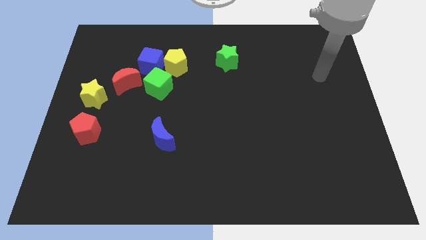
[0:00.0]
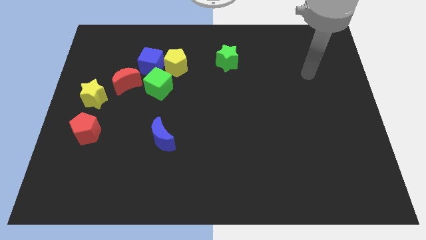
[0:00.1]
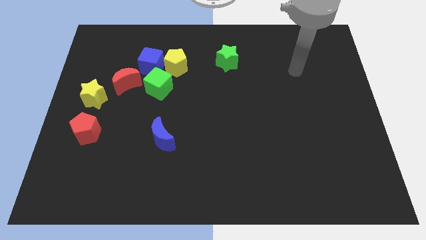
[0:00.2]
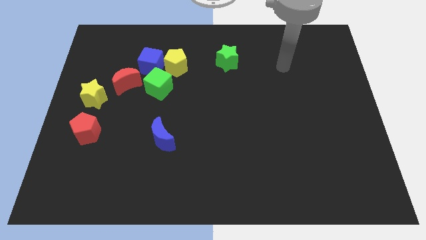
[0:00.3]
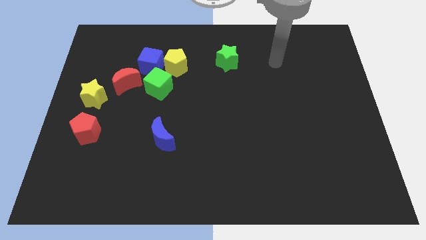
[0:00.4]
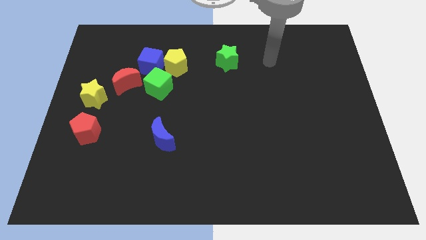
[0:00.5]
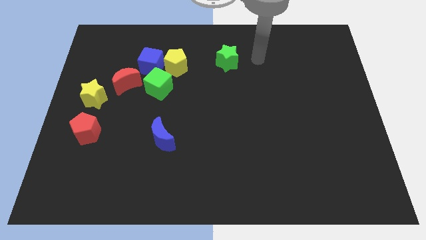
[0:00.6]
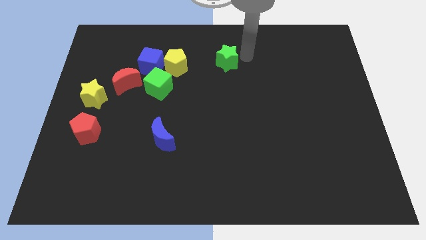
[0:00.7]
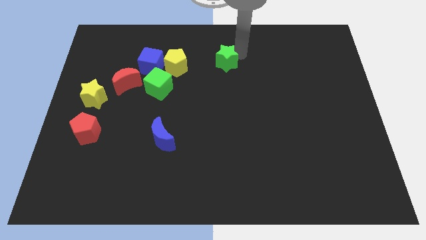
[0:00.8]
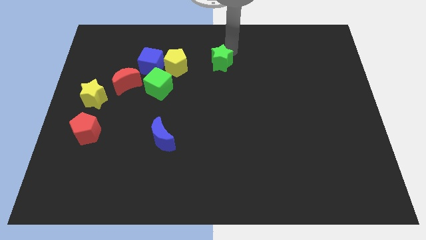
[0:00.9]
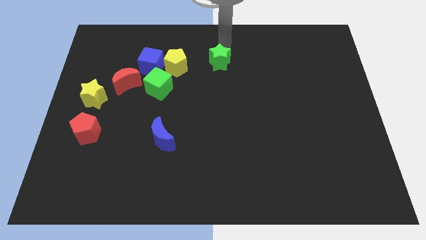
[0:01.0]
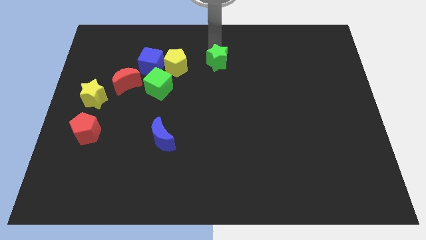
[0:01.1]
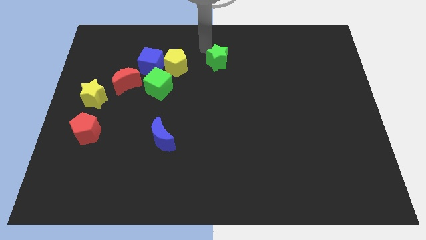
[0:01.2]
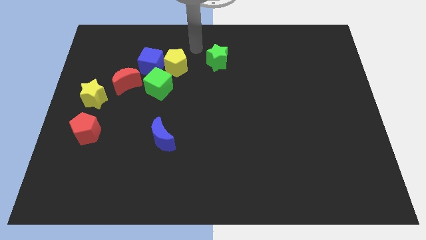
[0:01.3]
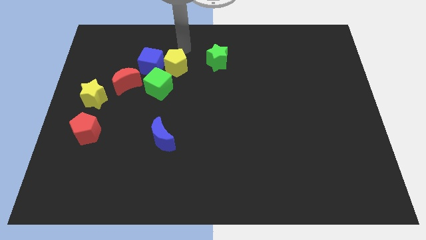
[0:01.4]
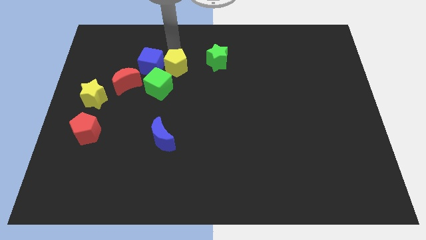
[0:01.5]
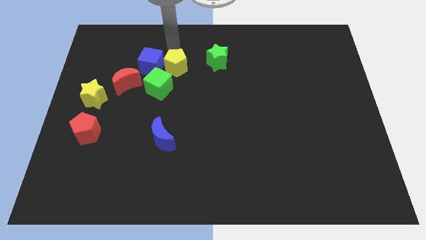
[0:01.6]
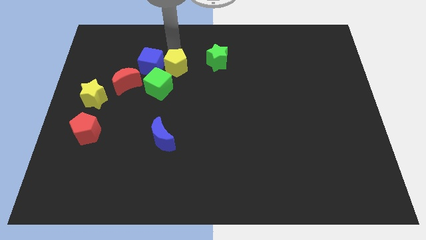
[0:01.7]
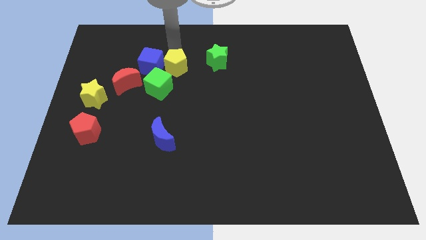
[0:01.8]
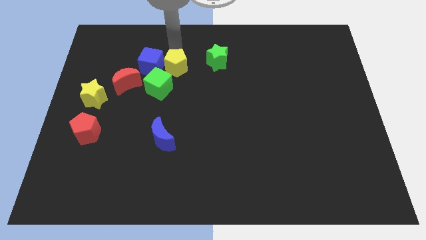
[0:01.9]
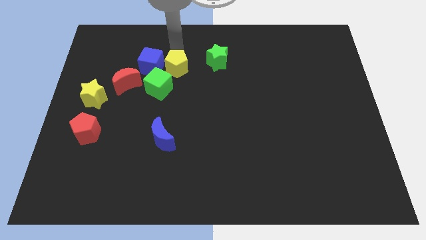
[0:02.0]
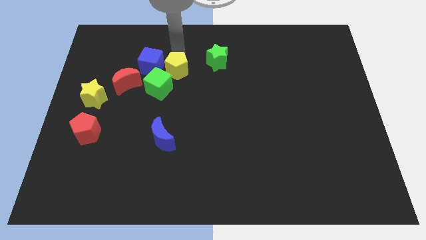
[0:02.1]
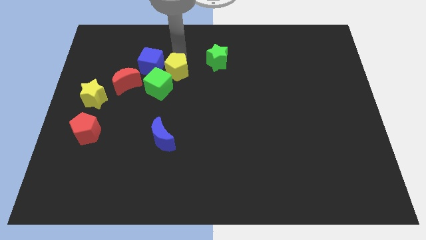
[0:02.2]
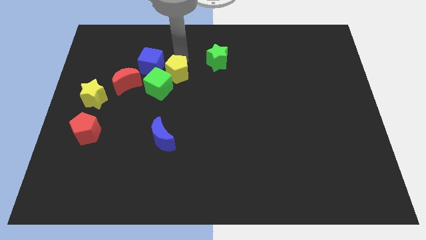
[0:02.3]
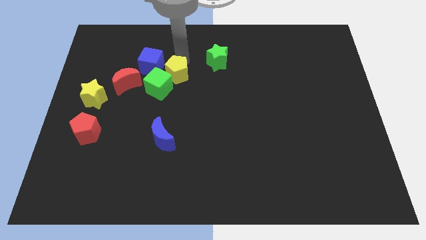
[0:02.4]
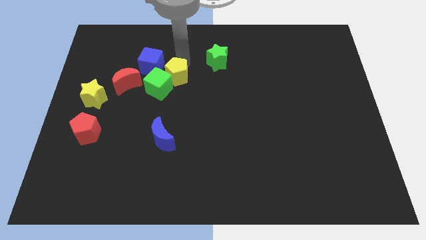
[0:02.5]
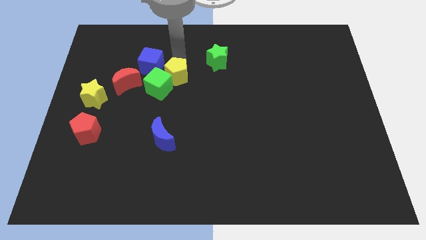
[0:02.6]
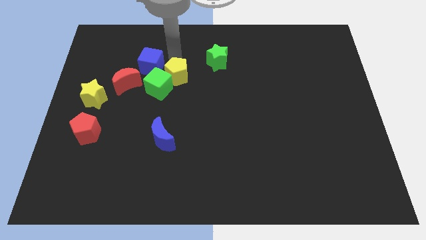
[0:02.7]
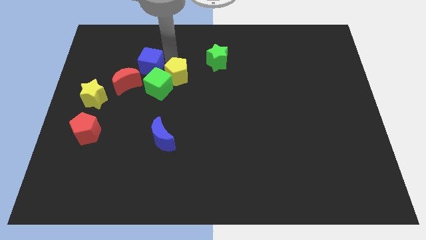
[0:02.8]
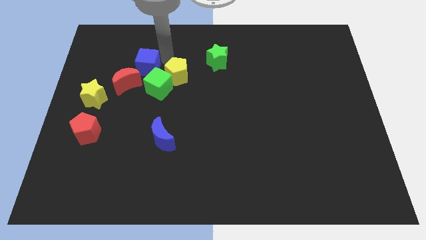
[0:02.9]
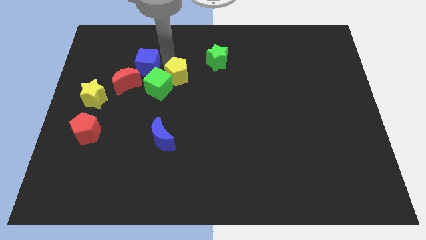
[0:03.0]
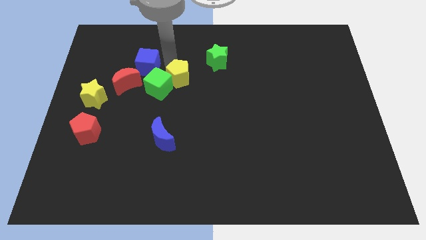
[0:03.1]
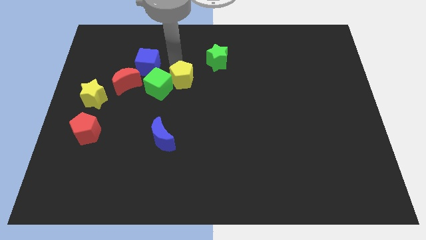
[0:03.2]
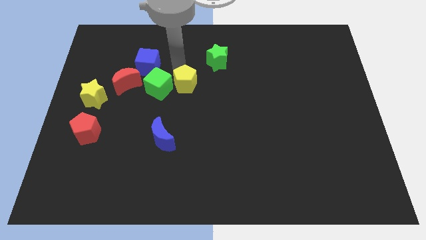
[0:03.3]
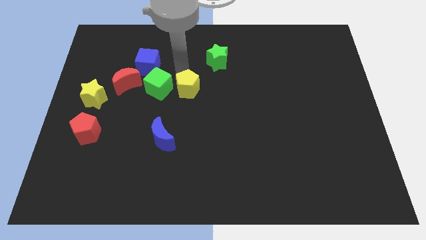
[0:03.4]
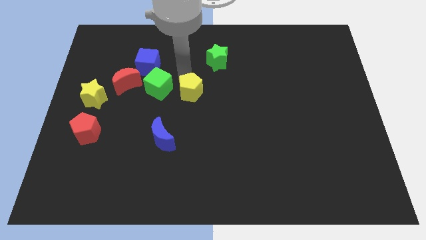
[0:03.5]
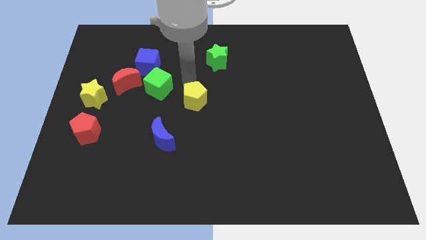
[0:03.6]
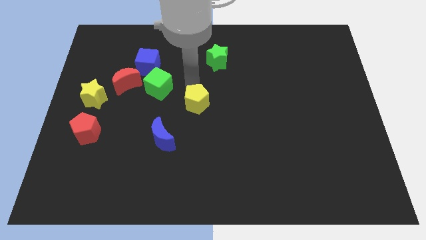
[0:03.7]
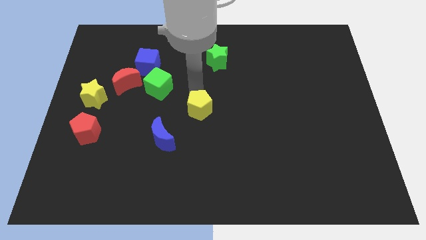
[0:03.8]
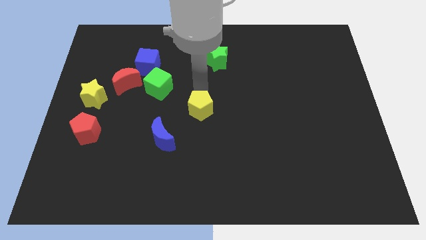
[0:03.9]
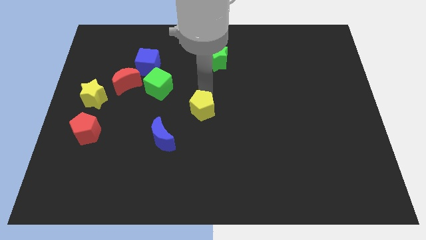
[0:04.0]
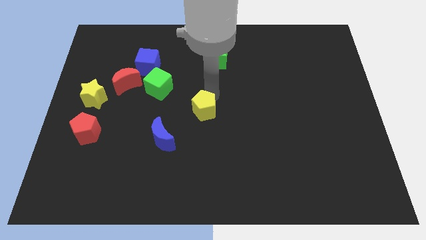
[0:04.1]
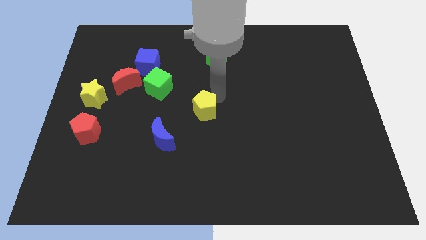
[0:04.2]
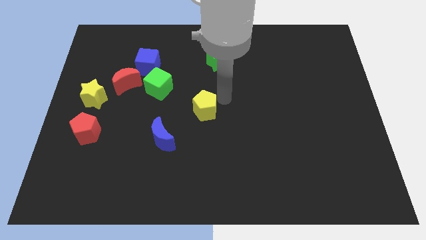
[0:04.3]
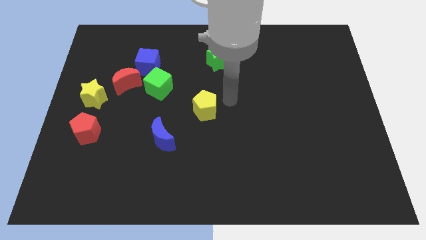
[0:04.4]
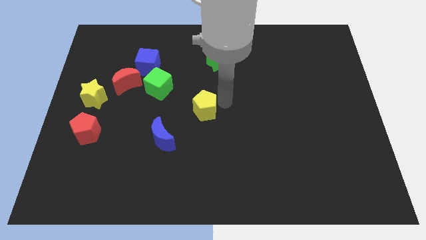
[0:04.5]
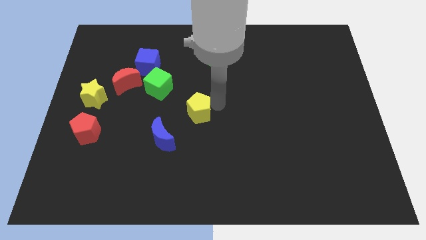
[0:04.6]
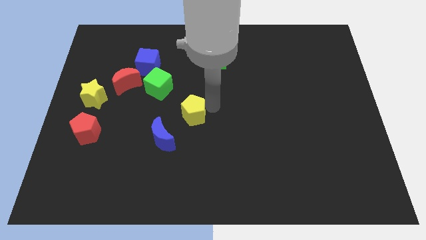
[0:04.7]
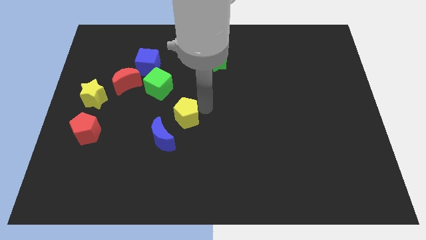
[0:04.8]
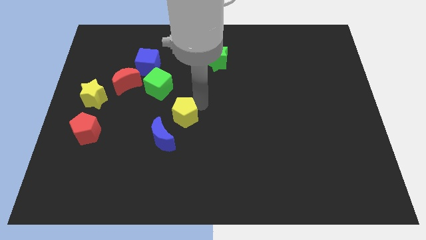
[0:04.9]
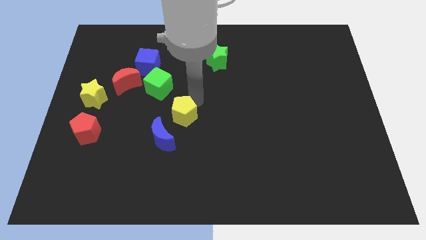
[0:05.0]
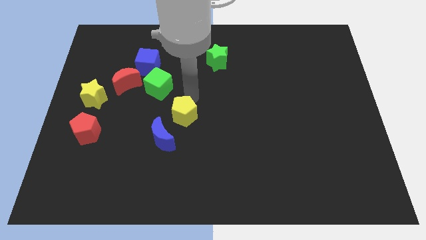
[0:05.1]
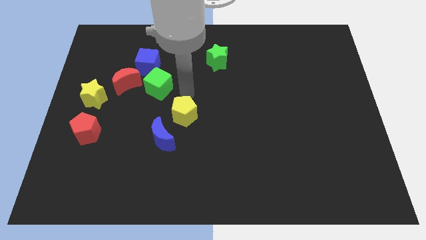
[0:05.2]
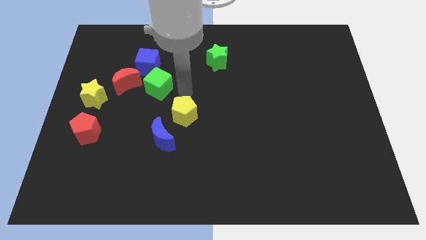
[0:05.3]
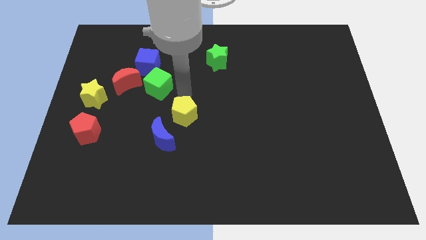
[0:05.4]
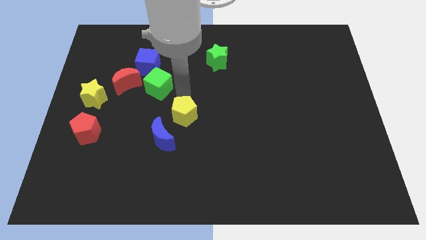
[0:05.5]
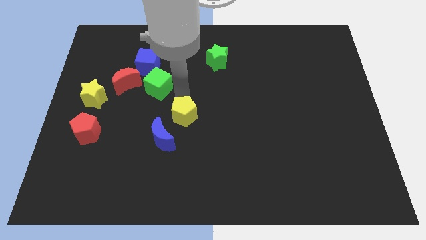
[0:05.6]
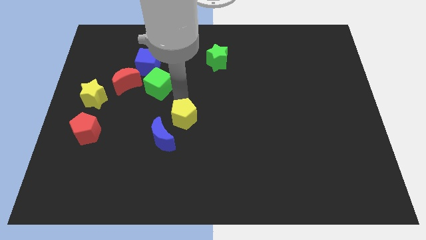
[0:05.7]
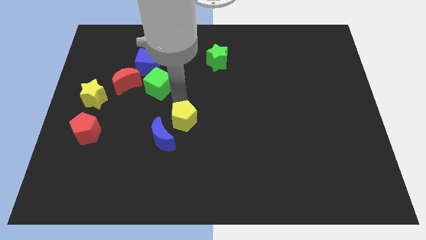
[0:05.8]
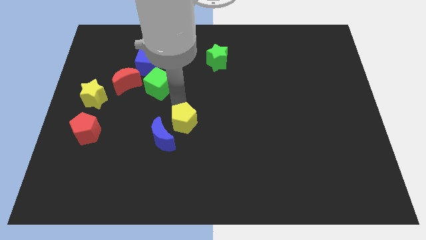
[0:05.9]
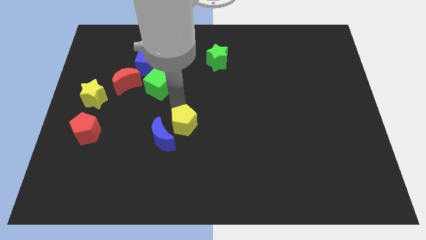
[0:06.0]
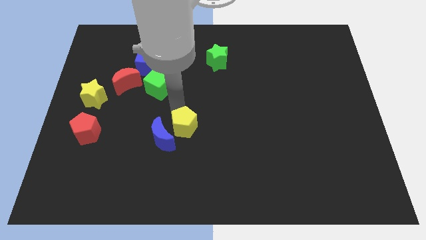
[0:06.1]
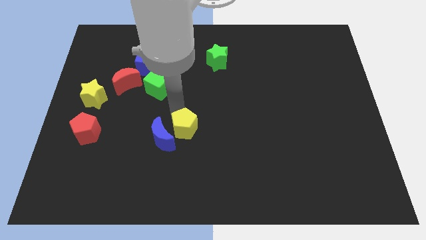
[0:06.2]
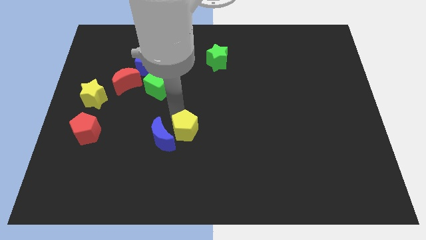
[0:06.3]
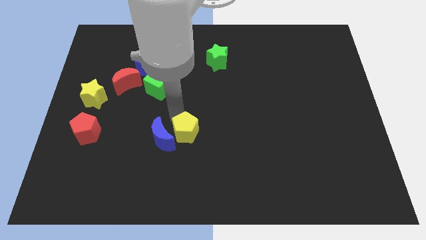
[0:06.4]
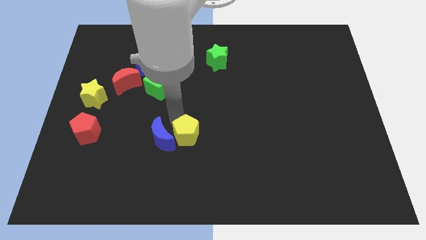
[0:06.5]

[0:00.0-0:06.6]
slide the yellow pentagon to the bottom right side of the blue moon

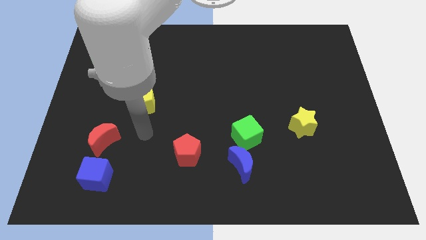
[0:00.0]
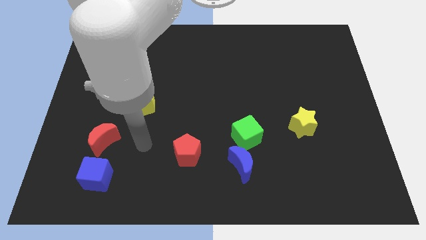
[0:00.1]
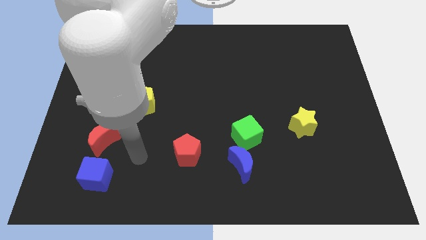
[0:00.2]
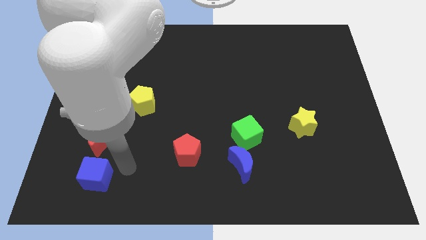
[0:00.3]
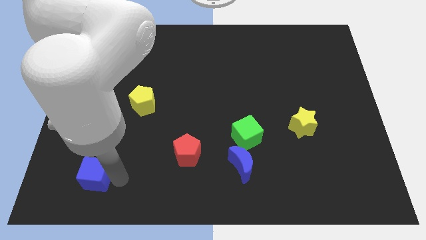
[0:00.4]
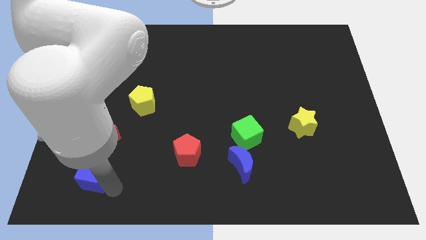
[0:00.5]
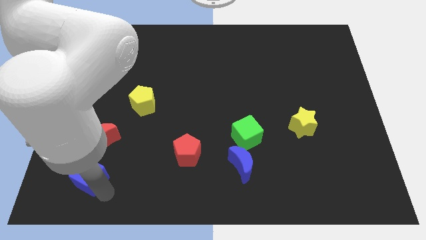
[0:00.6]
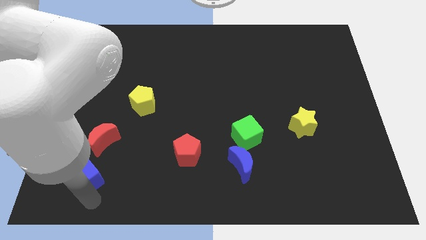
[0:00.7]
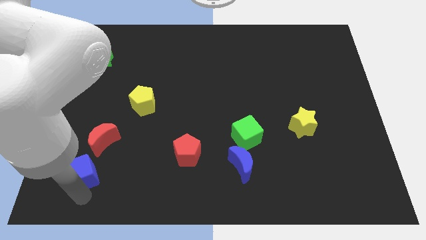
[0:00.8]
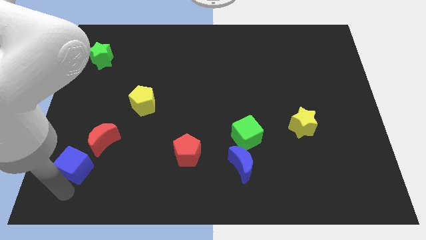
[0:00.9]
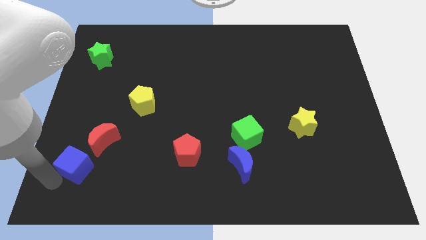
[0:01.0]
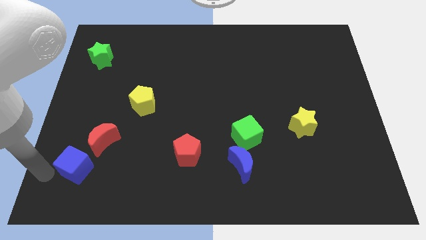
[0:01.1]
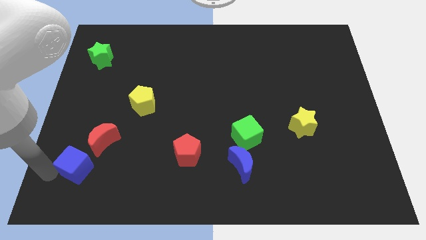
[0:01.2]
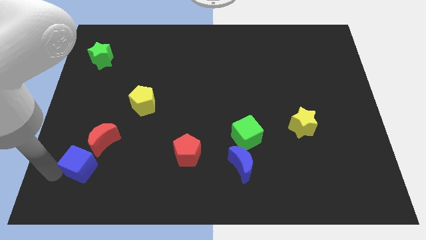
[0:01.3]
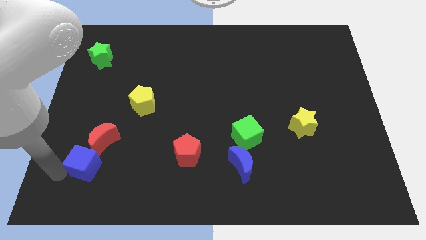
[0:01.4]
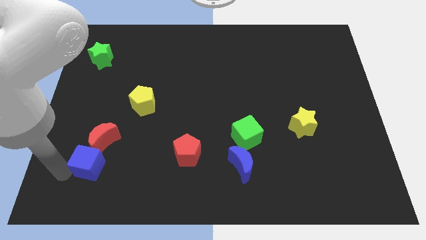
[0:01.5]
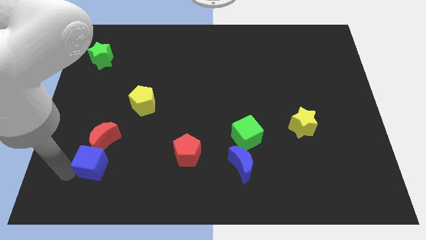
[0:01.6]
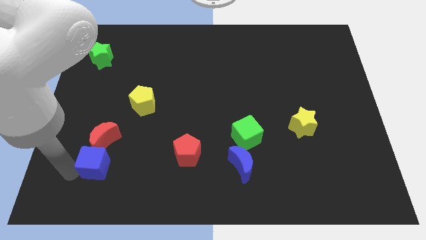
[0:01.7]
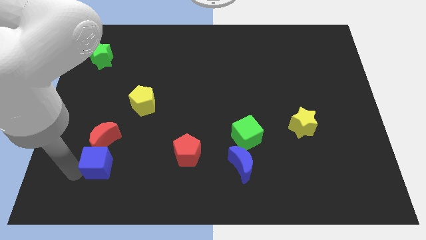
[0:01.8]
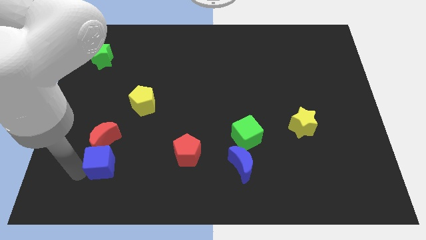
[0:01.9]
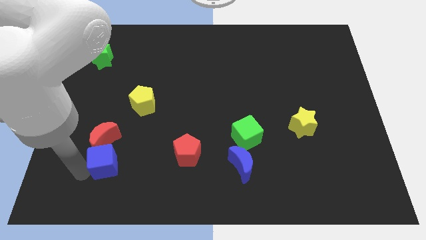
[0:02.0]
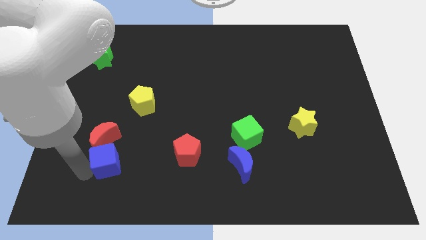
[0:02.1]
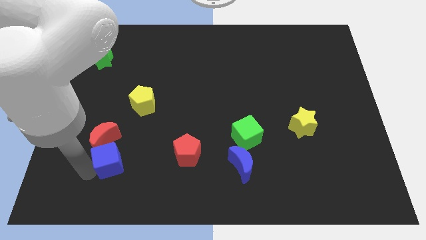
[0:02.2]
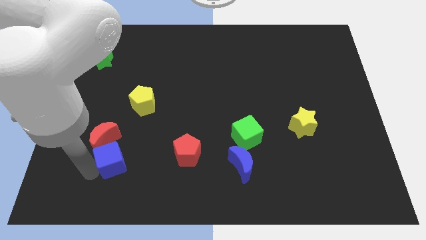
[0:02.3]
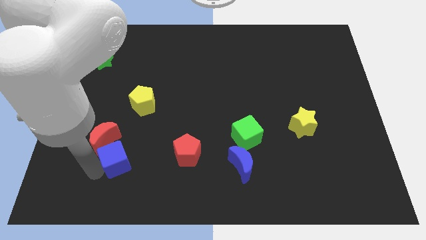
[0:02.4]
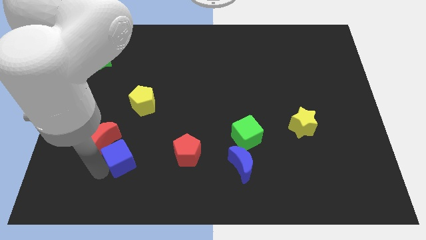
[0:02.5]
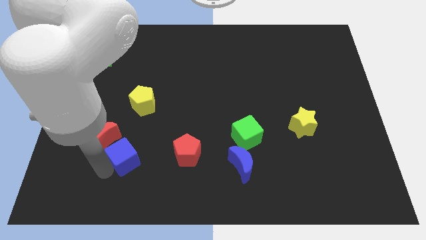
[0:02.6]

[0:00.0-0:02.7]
put the blue cube right of the red moon
